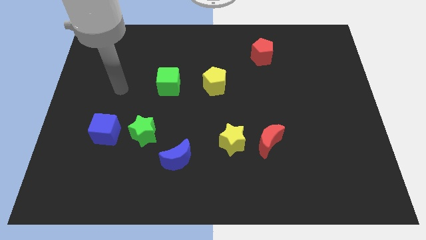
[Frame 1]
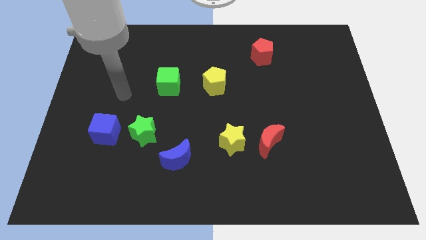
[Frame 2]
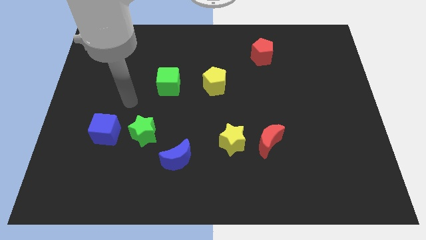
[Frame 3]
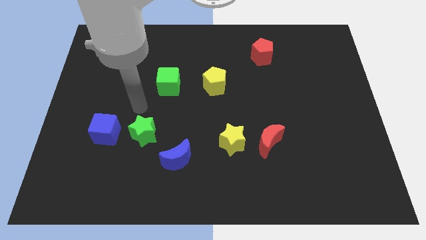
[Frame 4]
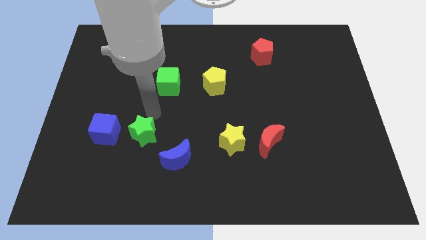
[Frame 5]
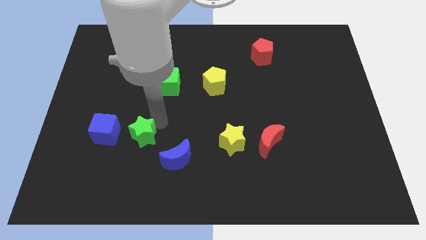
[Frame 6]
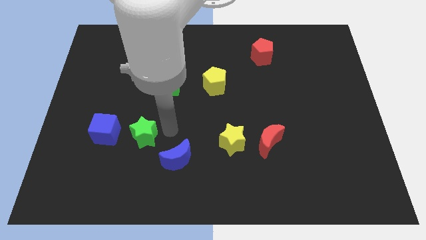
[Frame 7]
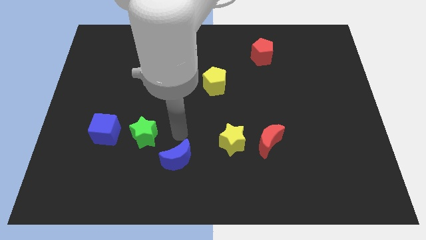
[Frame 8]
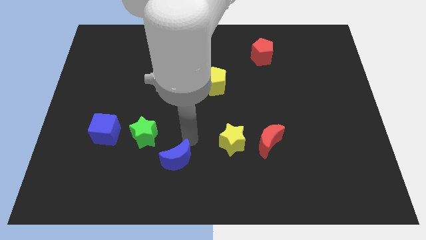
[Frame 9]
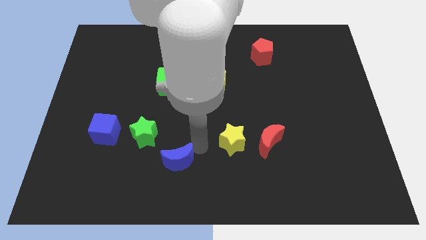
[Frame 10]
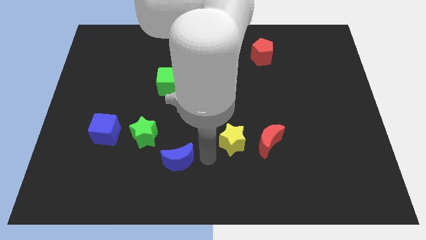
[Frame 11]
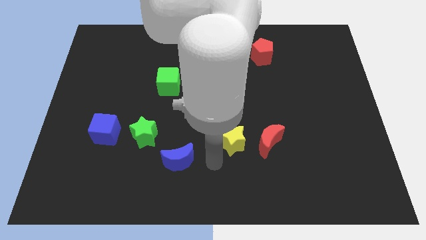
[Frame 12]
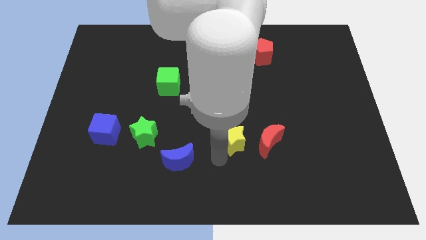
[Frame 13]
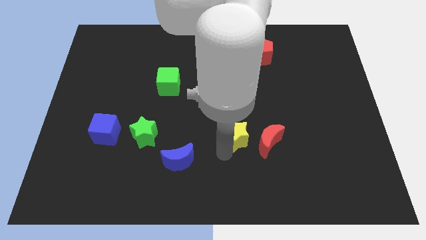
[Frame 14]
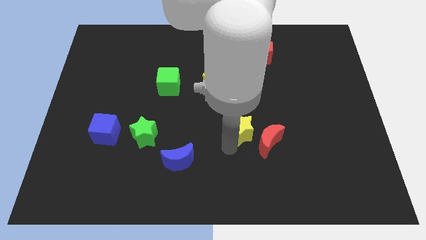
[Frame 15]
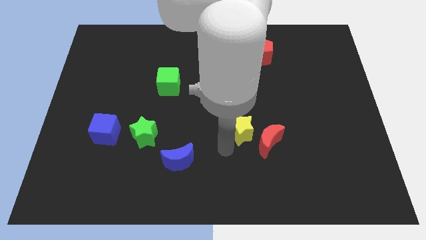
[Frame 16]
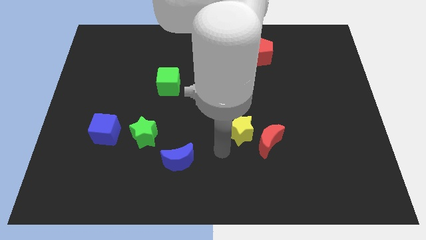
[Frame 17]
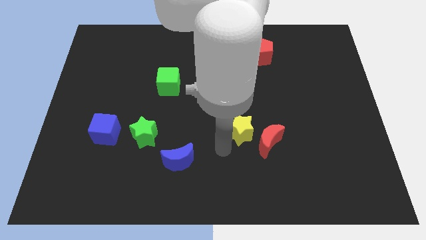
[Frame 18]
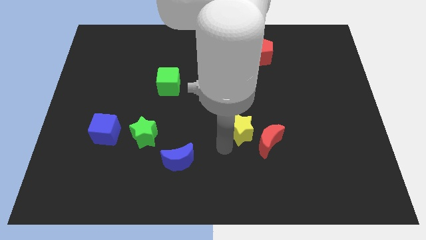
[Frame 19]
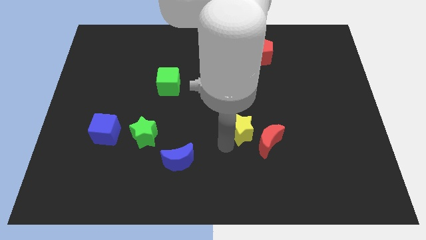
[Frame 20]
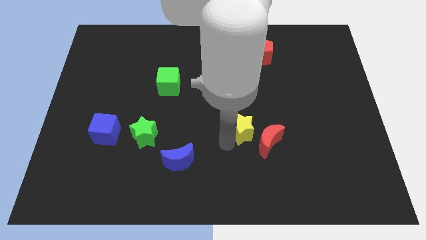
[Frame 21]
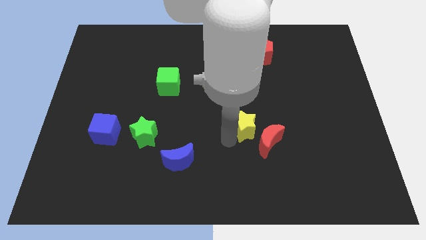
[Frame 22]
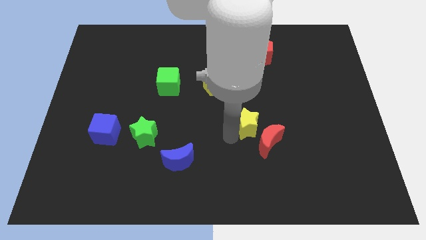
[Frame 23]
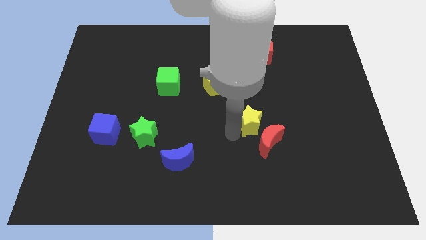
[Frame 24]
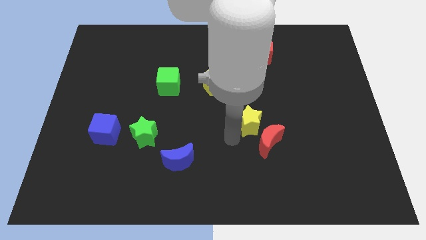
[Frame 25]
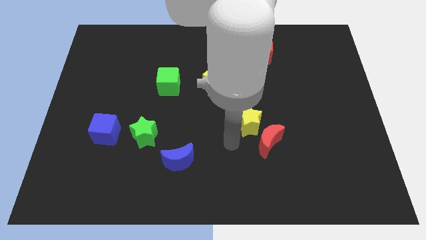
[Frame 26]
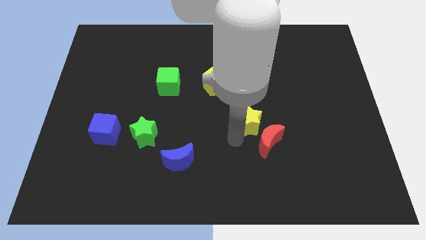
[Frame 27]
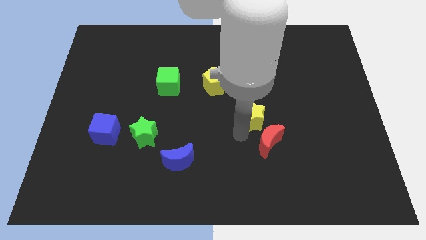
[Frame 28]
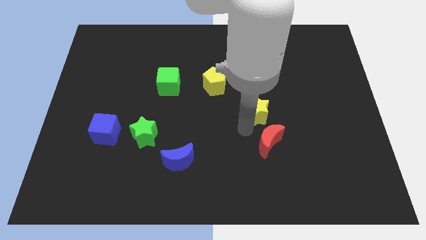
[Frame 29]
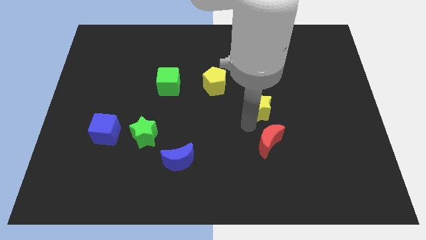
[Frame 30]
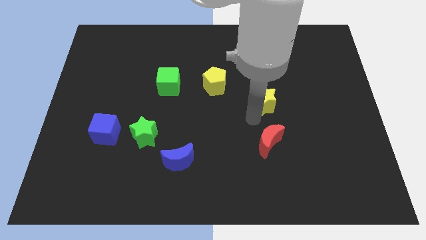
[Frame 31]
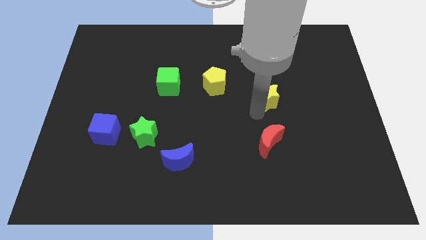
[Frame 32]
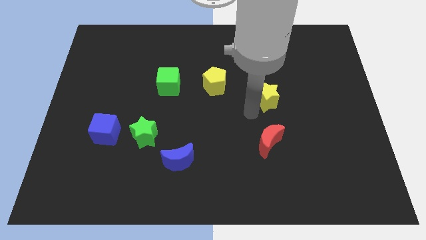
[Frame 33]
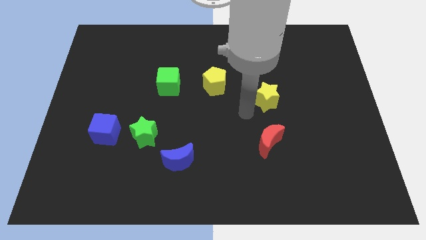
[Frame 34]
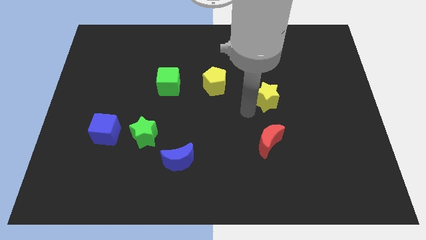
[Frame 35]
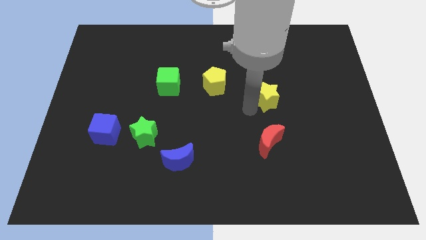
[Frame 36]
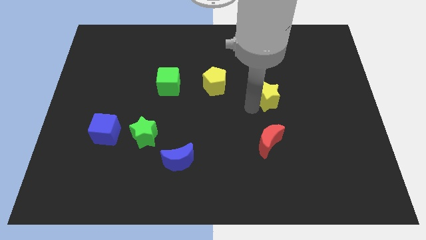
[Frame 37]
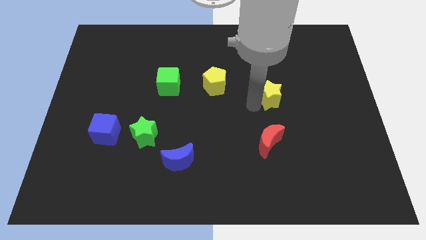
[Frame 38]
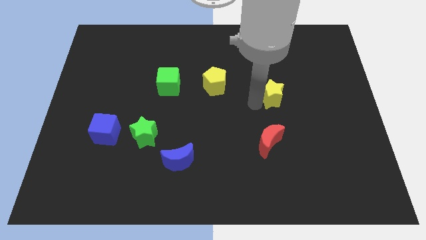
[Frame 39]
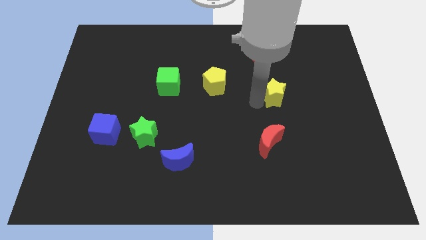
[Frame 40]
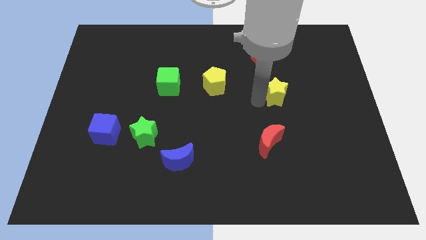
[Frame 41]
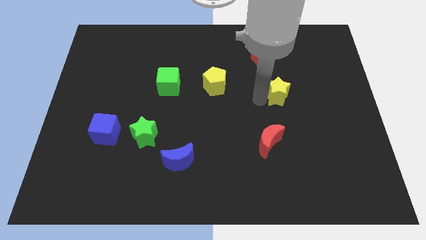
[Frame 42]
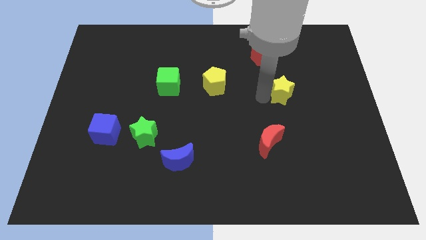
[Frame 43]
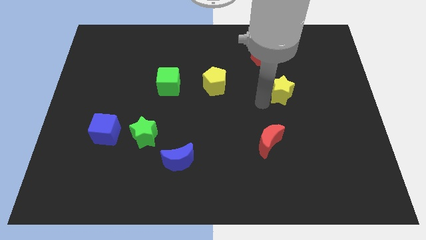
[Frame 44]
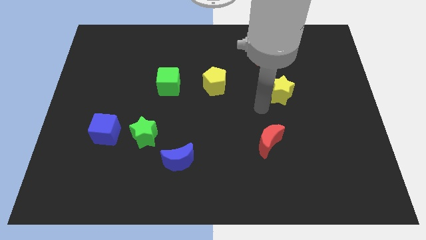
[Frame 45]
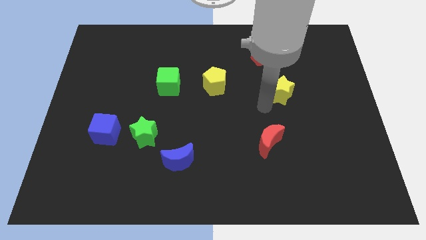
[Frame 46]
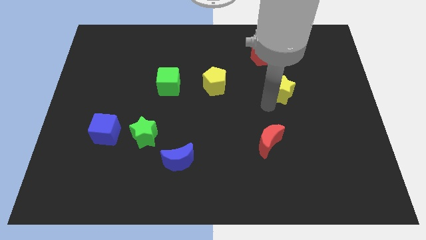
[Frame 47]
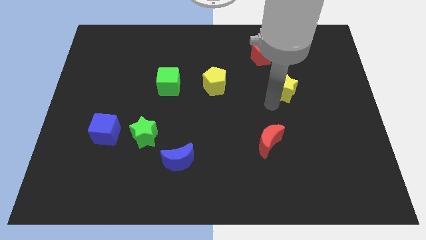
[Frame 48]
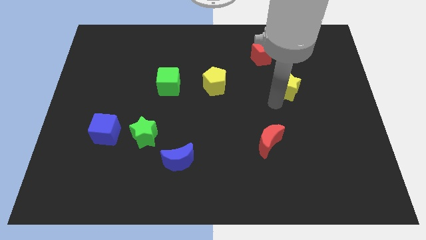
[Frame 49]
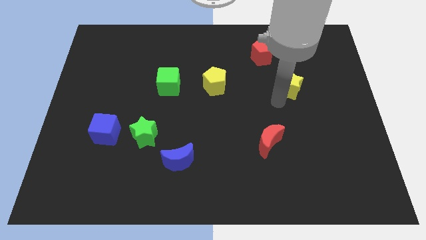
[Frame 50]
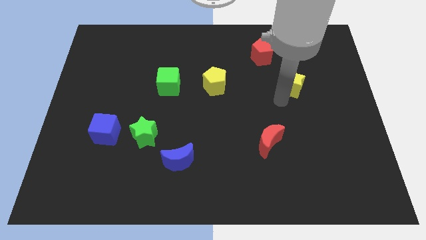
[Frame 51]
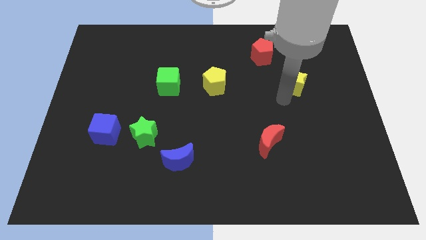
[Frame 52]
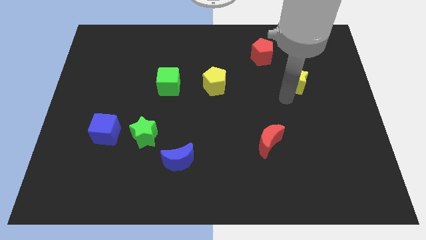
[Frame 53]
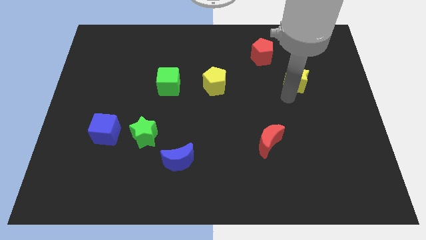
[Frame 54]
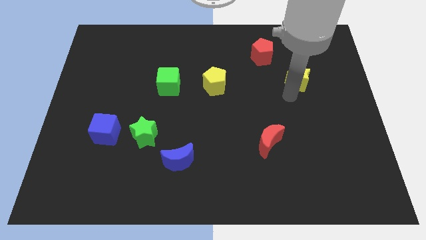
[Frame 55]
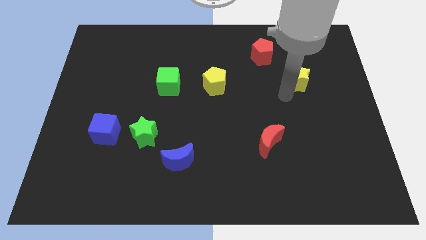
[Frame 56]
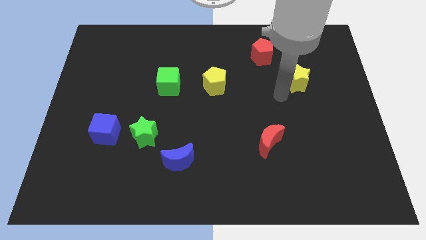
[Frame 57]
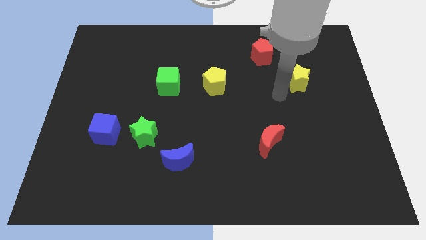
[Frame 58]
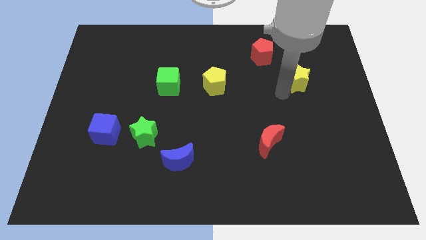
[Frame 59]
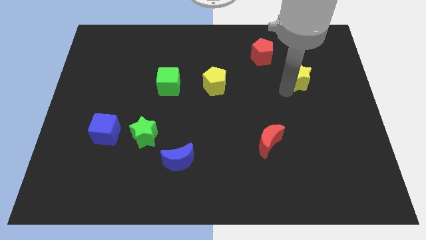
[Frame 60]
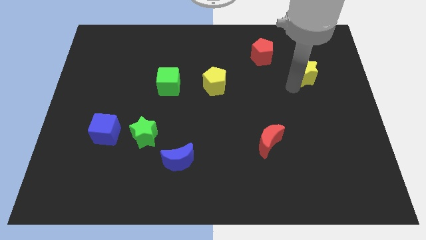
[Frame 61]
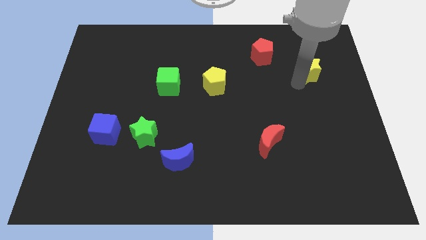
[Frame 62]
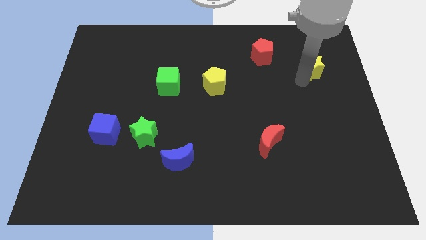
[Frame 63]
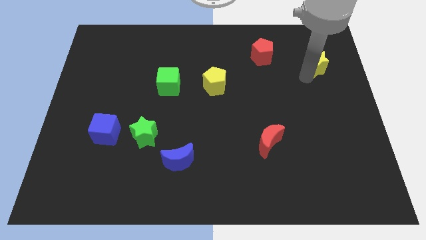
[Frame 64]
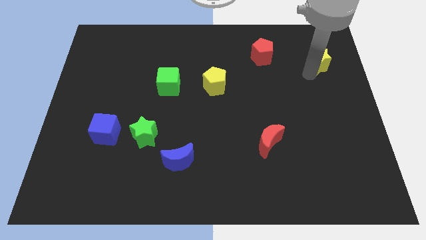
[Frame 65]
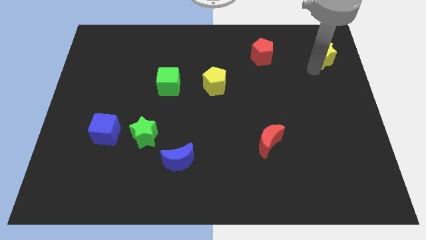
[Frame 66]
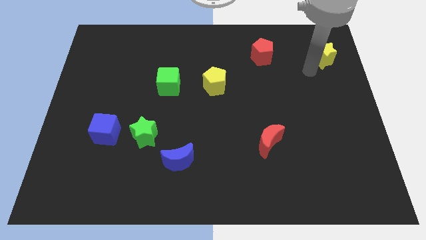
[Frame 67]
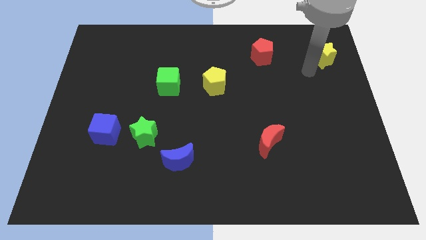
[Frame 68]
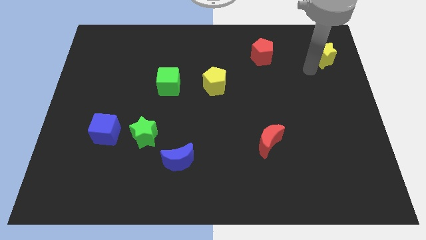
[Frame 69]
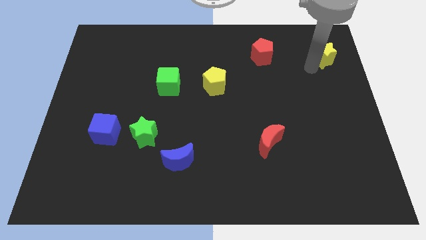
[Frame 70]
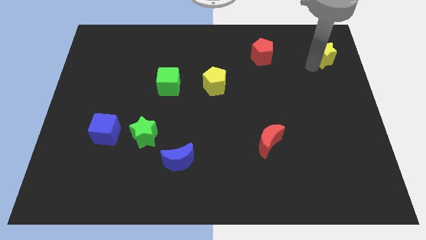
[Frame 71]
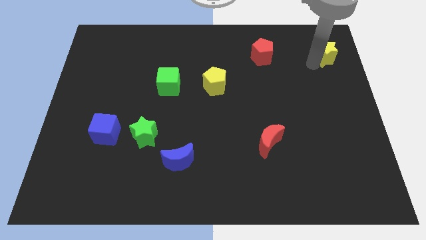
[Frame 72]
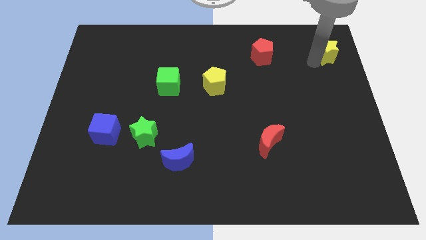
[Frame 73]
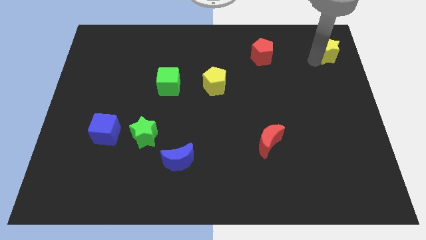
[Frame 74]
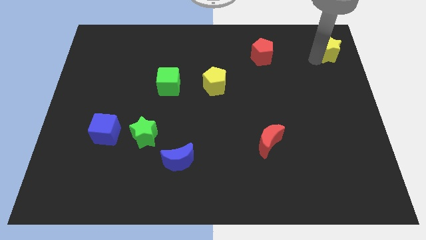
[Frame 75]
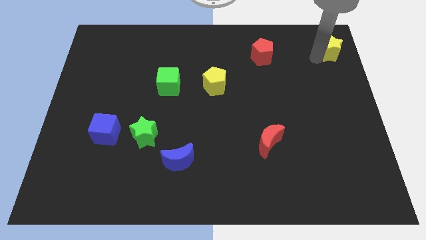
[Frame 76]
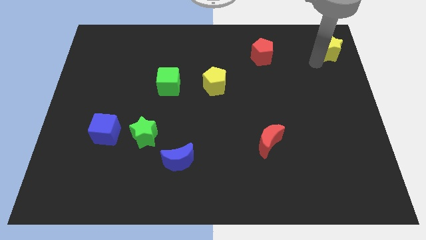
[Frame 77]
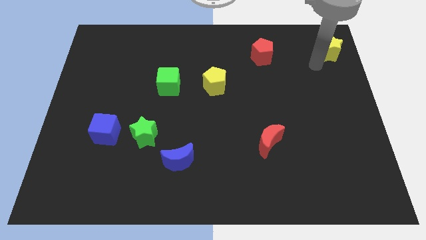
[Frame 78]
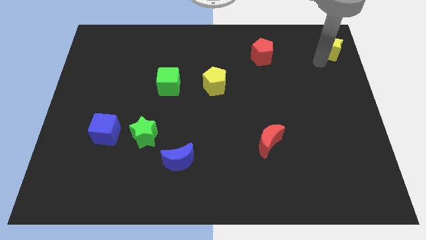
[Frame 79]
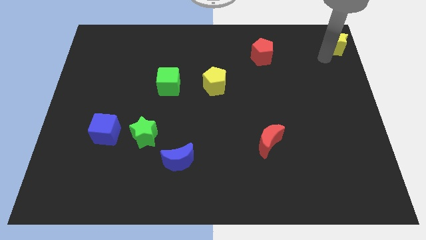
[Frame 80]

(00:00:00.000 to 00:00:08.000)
slide the yellow star to the top right corner
